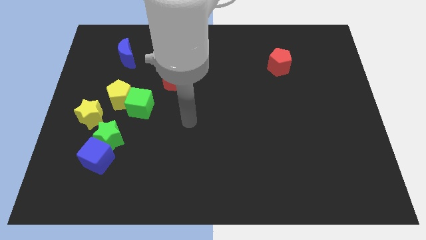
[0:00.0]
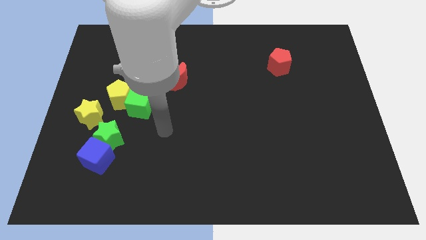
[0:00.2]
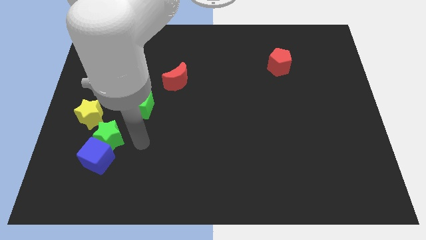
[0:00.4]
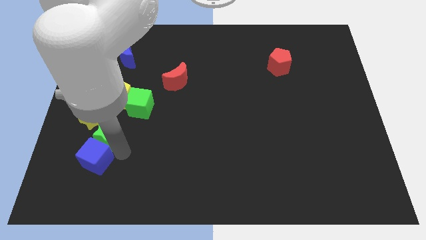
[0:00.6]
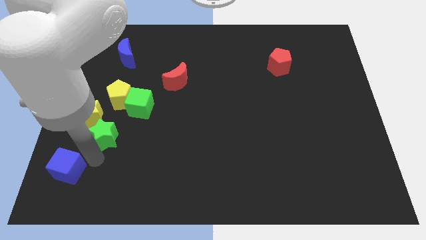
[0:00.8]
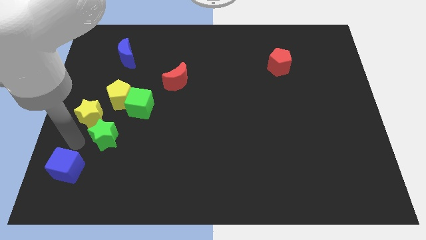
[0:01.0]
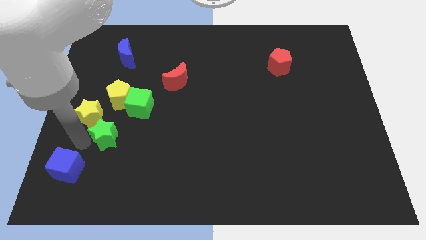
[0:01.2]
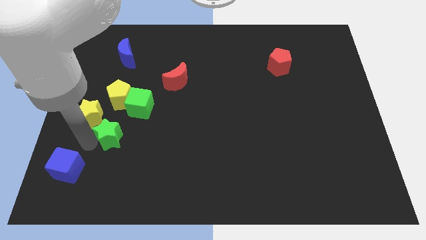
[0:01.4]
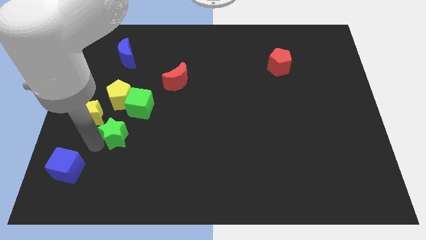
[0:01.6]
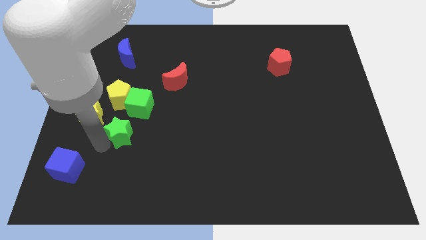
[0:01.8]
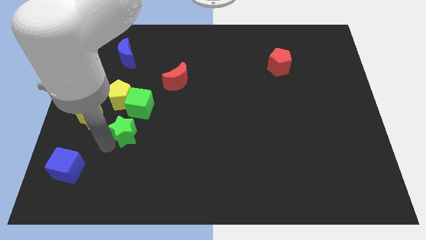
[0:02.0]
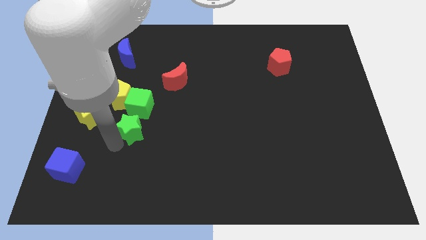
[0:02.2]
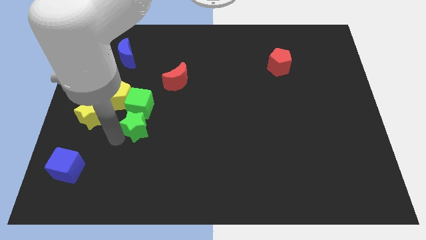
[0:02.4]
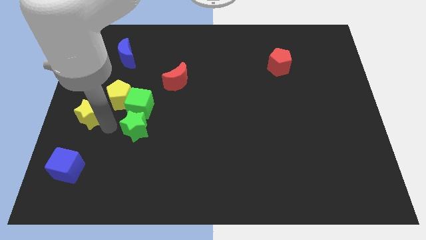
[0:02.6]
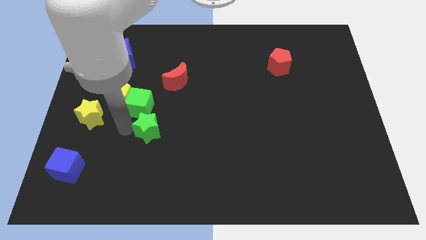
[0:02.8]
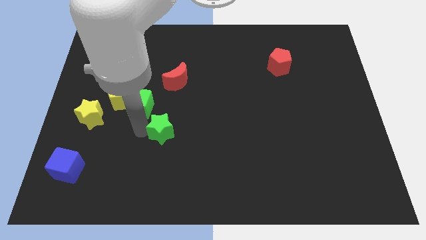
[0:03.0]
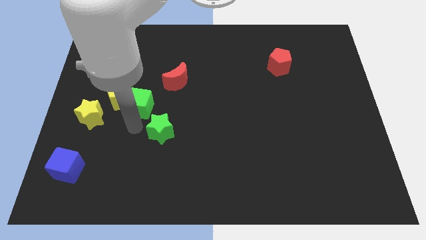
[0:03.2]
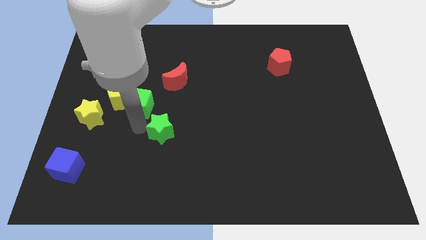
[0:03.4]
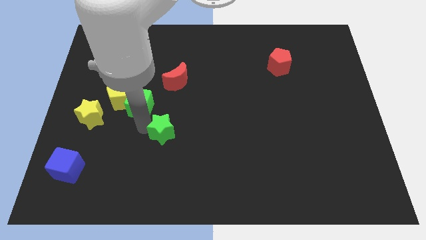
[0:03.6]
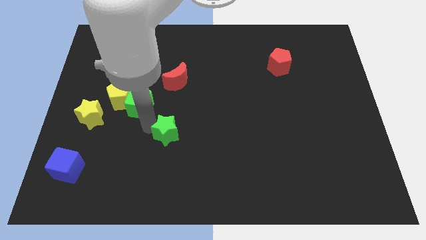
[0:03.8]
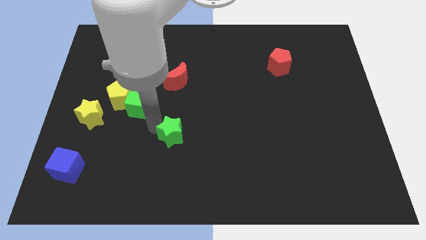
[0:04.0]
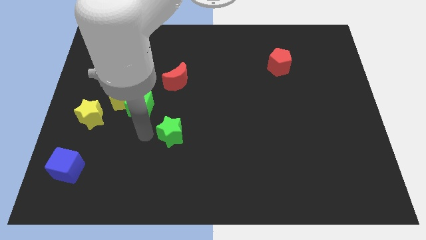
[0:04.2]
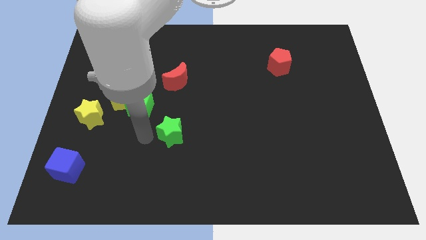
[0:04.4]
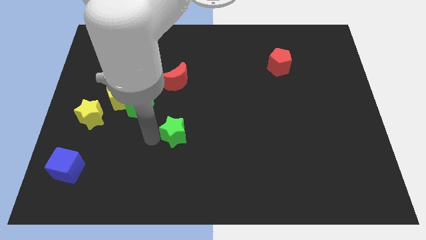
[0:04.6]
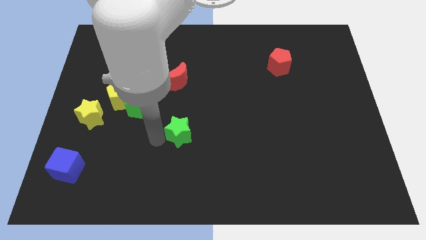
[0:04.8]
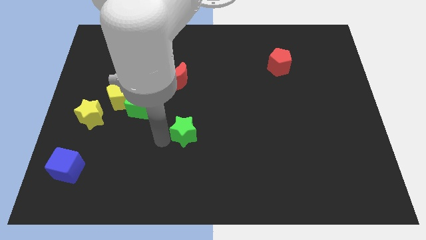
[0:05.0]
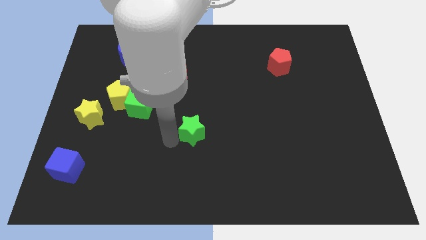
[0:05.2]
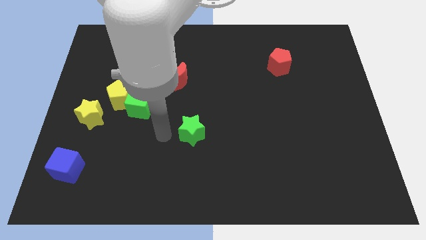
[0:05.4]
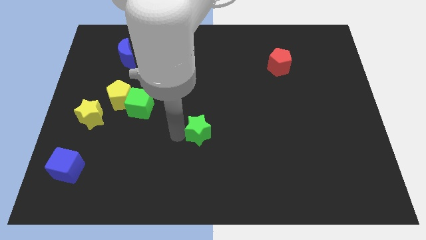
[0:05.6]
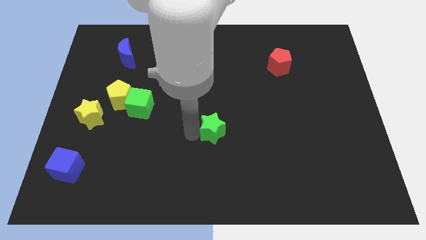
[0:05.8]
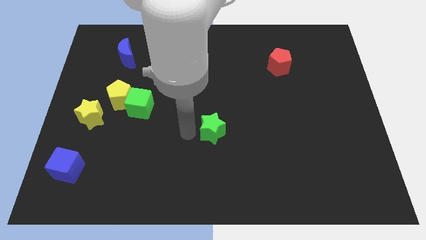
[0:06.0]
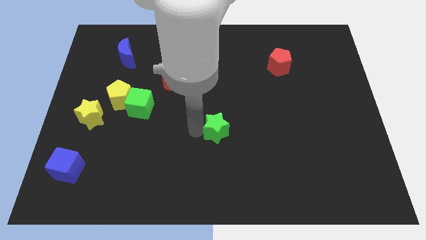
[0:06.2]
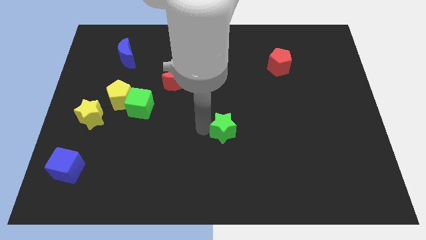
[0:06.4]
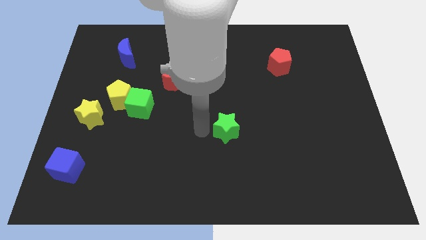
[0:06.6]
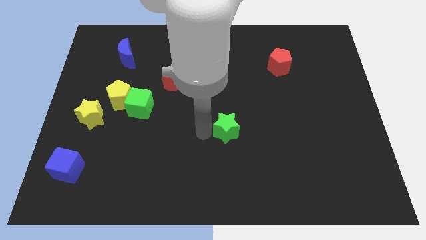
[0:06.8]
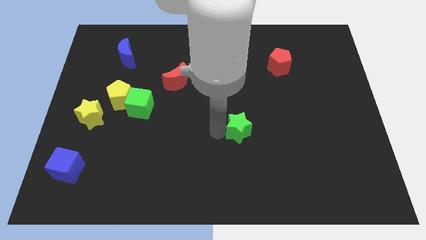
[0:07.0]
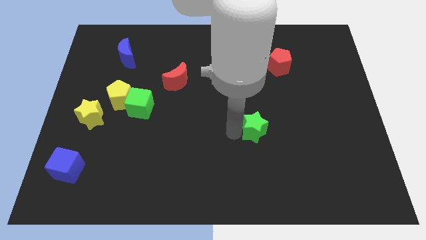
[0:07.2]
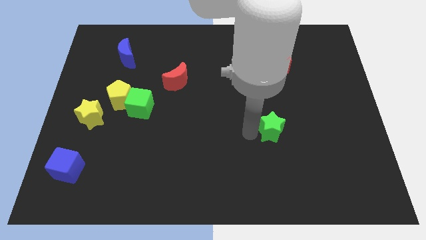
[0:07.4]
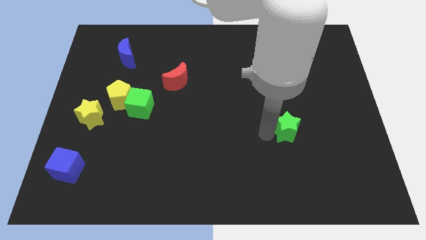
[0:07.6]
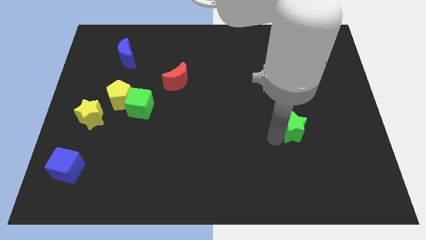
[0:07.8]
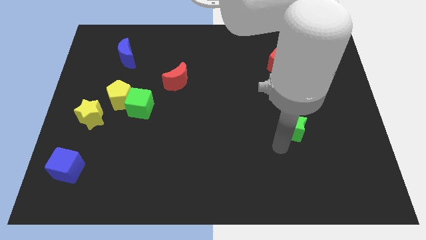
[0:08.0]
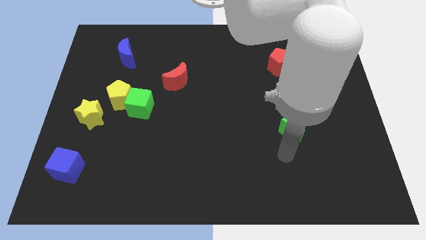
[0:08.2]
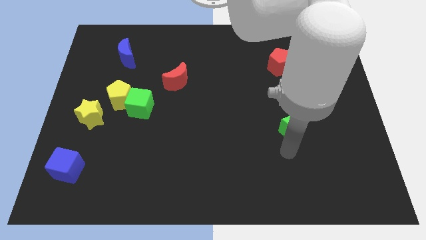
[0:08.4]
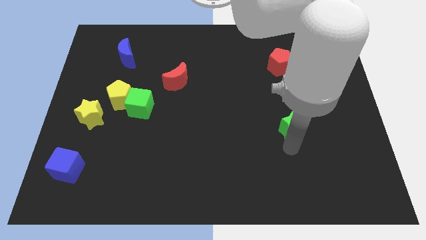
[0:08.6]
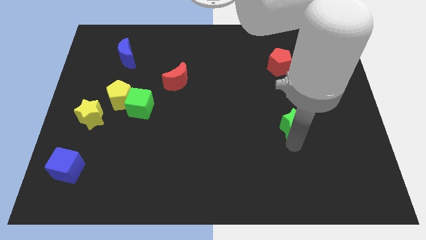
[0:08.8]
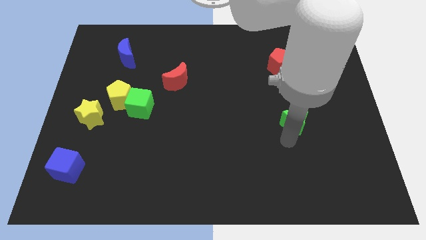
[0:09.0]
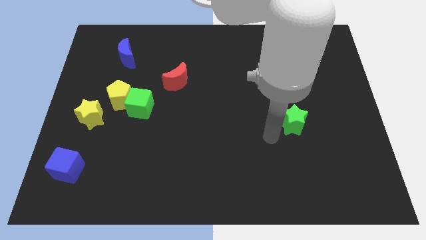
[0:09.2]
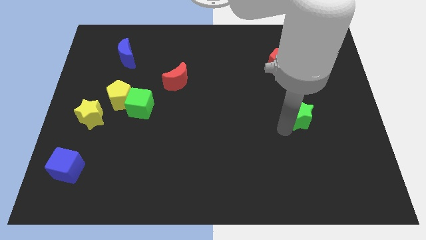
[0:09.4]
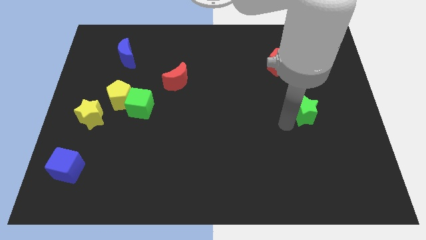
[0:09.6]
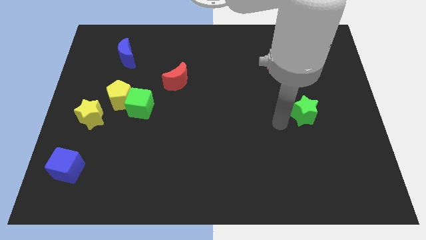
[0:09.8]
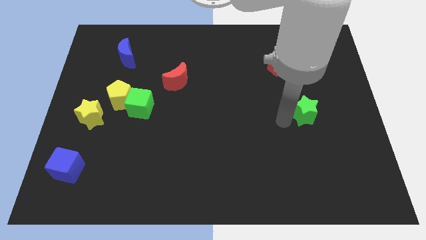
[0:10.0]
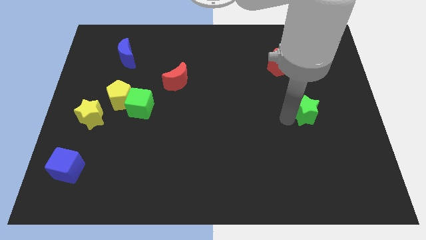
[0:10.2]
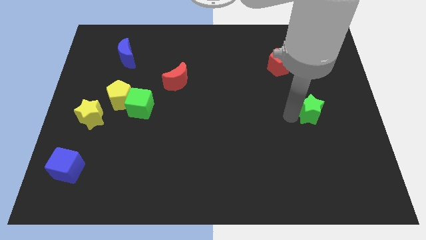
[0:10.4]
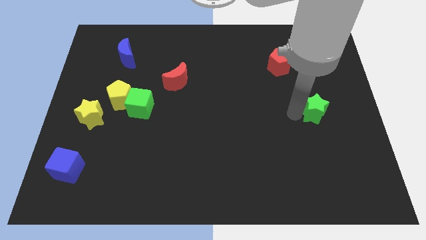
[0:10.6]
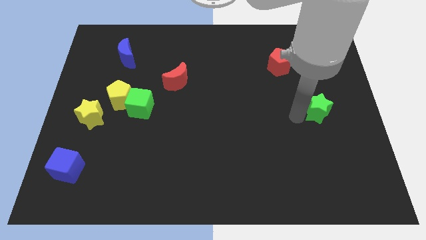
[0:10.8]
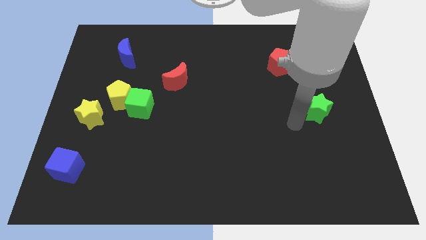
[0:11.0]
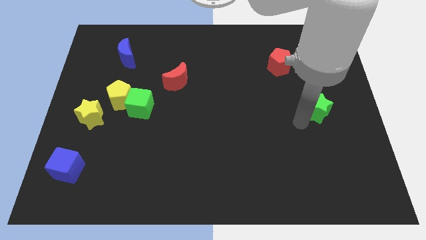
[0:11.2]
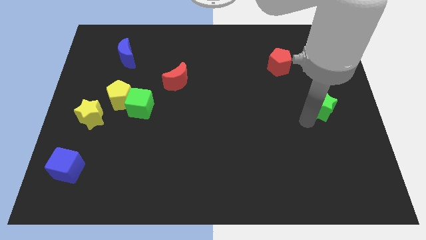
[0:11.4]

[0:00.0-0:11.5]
put the green star to the right side
